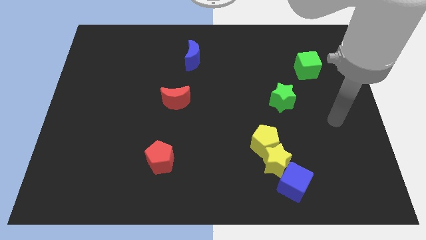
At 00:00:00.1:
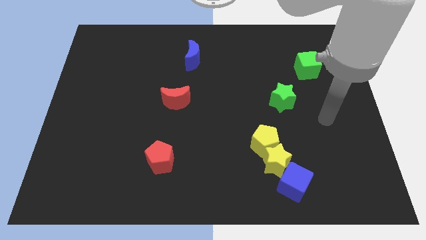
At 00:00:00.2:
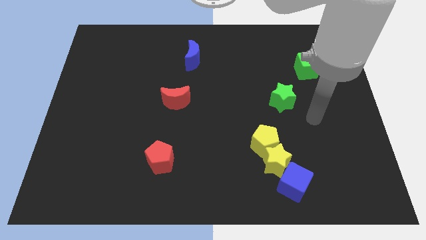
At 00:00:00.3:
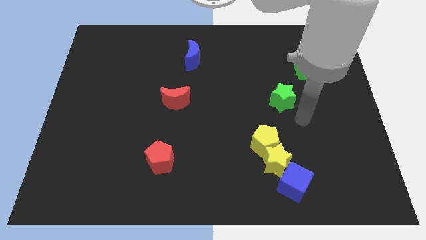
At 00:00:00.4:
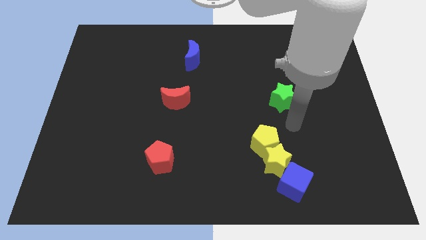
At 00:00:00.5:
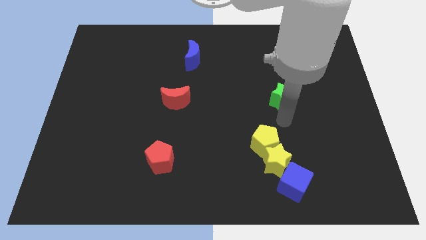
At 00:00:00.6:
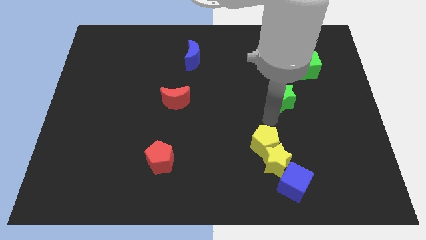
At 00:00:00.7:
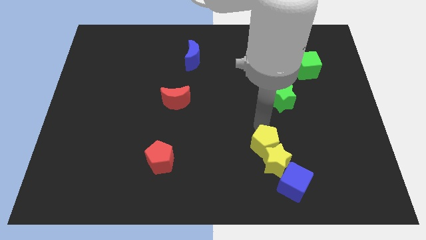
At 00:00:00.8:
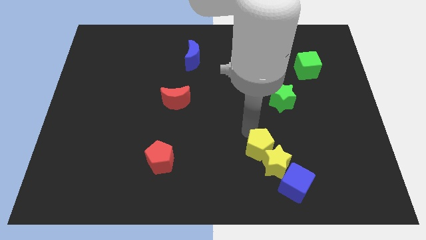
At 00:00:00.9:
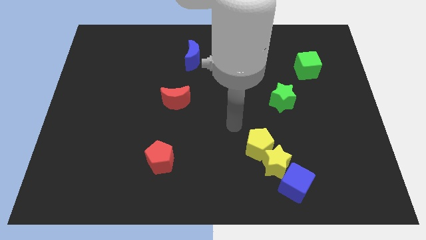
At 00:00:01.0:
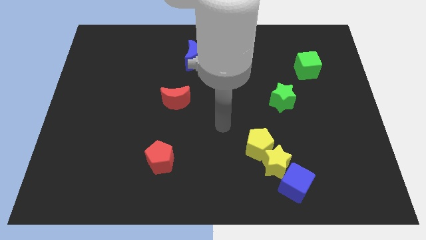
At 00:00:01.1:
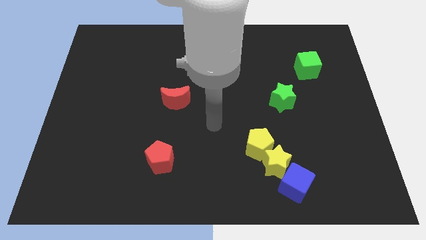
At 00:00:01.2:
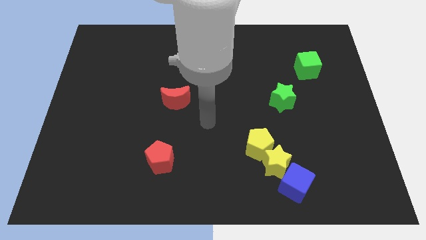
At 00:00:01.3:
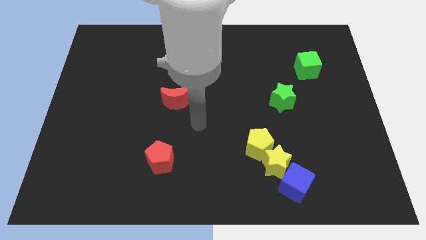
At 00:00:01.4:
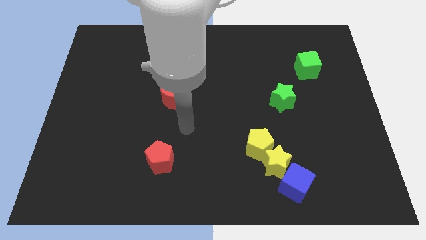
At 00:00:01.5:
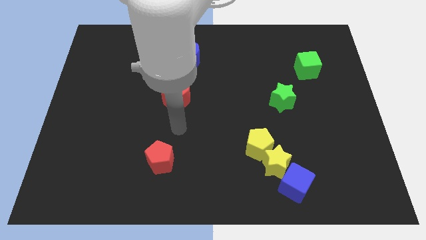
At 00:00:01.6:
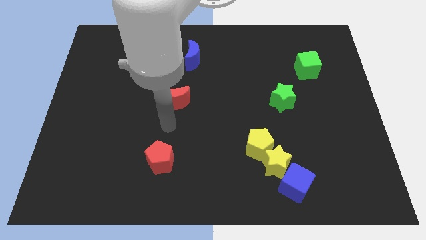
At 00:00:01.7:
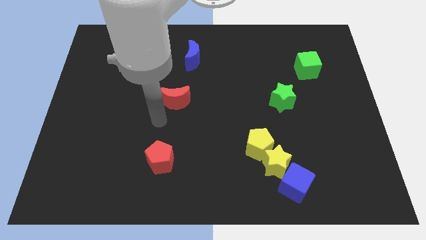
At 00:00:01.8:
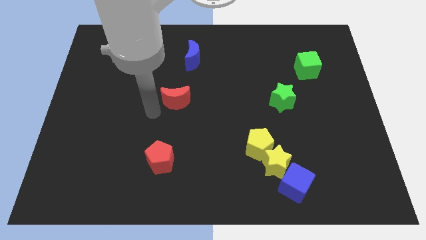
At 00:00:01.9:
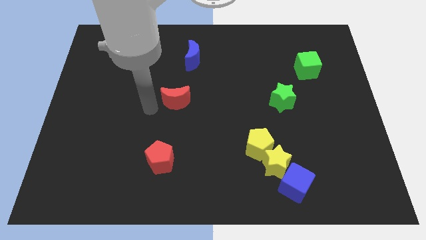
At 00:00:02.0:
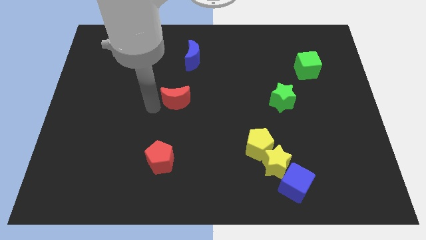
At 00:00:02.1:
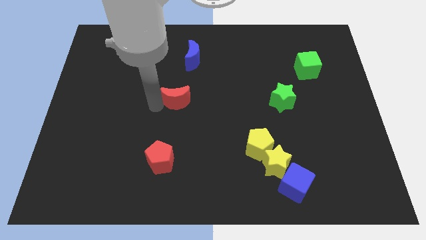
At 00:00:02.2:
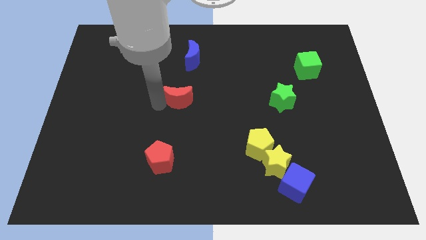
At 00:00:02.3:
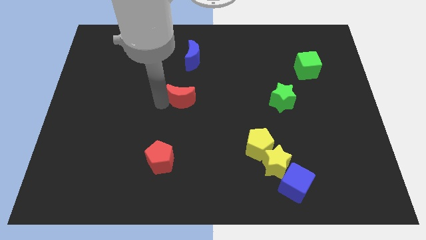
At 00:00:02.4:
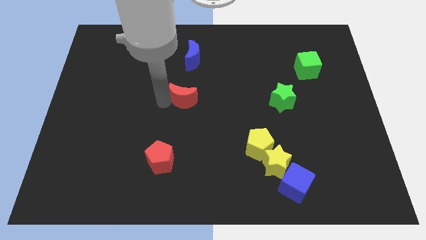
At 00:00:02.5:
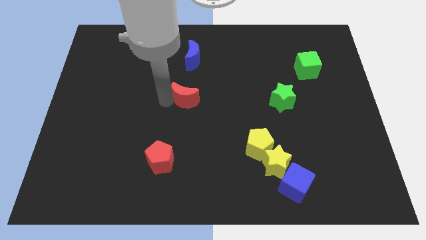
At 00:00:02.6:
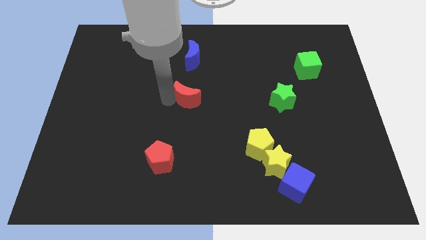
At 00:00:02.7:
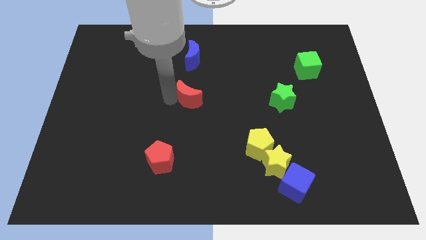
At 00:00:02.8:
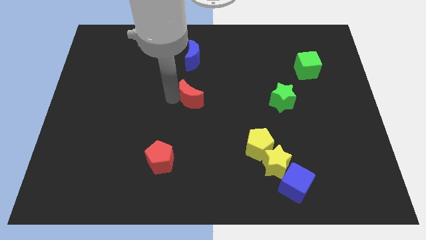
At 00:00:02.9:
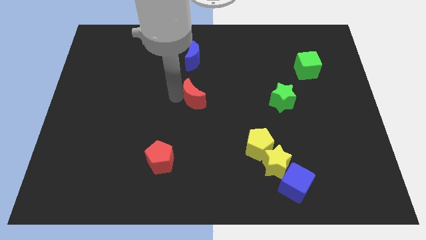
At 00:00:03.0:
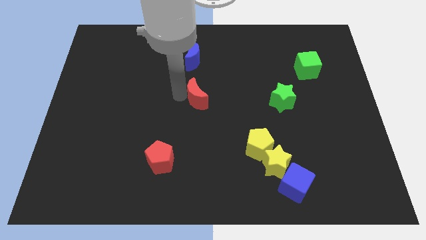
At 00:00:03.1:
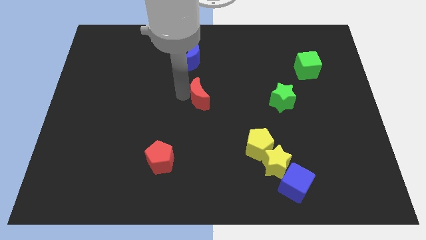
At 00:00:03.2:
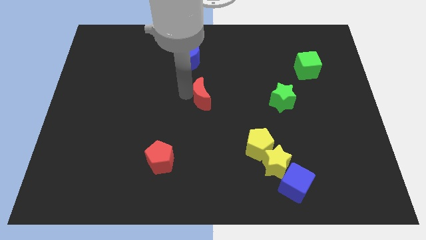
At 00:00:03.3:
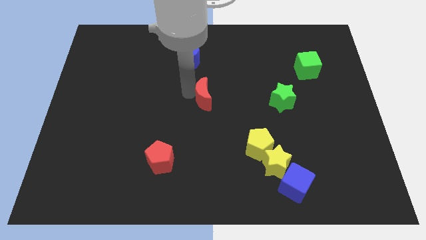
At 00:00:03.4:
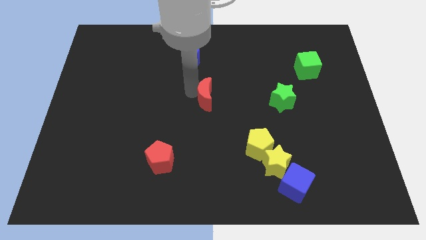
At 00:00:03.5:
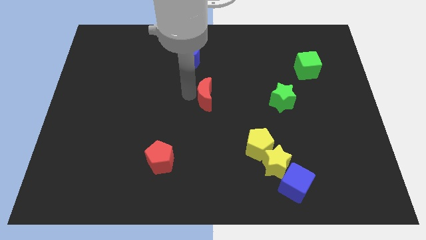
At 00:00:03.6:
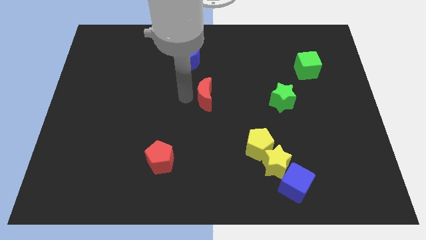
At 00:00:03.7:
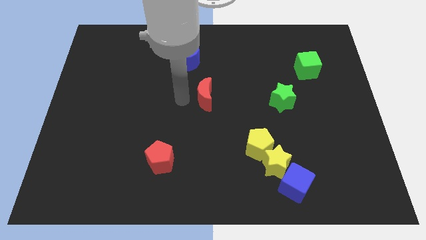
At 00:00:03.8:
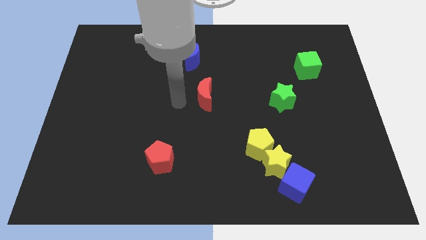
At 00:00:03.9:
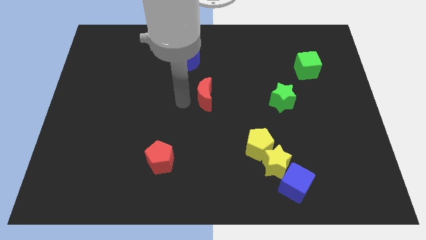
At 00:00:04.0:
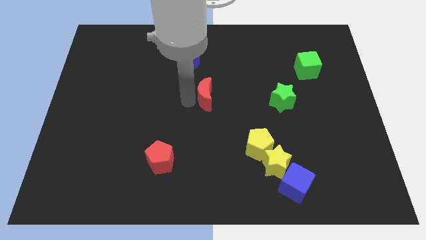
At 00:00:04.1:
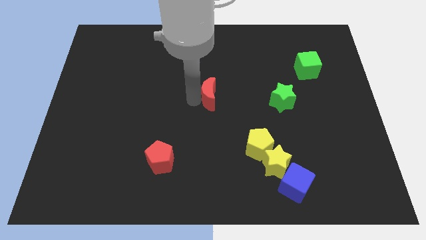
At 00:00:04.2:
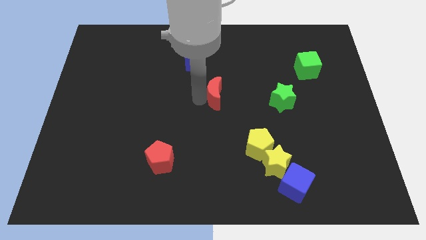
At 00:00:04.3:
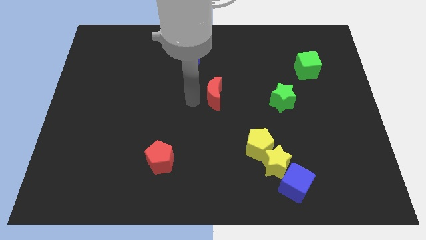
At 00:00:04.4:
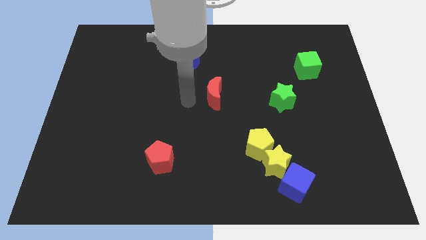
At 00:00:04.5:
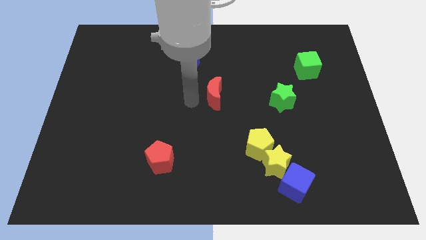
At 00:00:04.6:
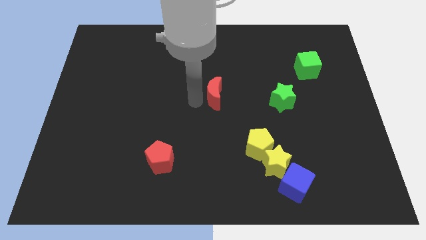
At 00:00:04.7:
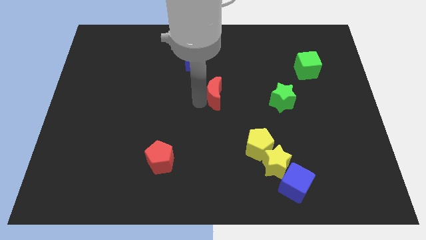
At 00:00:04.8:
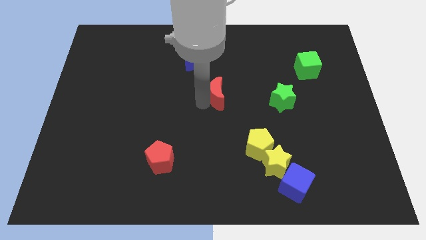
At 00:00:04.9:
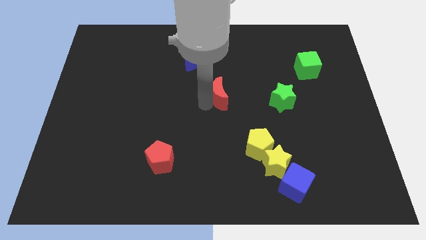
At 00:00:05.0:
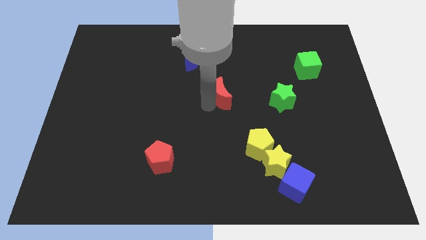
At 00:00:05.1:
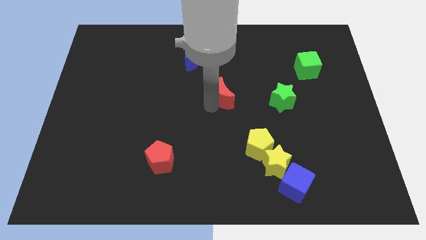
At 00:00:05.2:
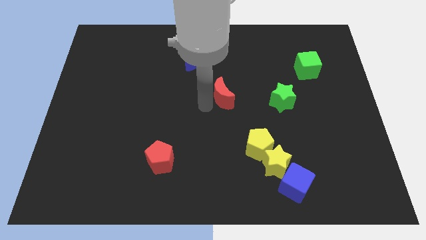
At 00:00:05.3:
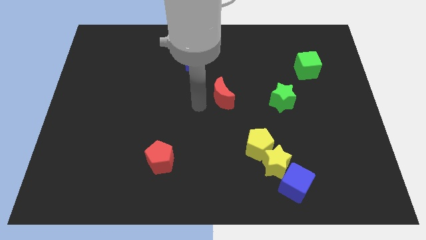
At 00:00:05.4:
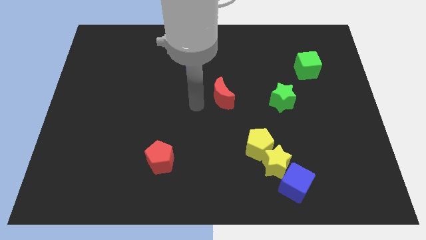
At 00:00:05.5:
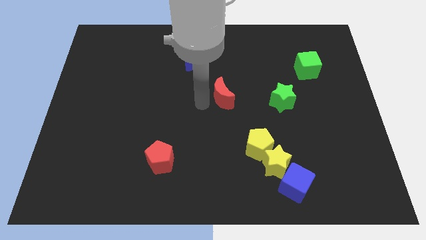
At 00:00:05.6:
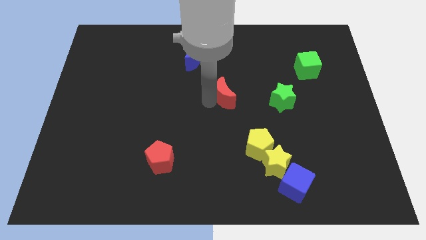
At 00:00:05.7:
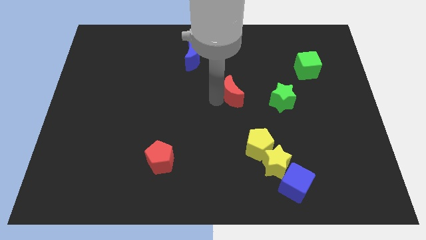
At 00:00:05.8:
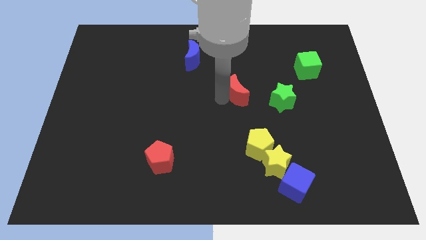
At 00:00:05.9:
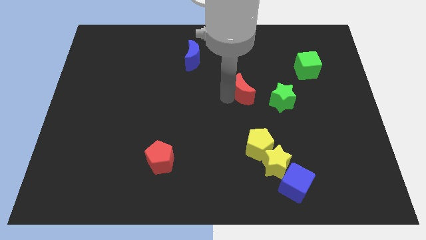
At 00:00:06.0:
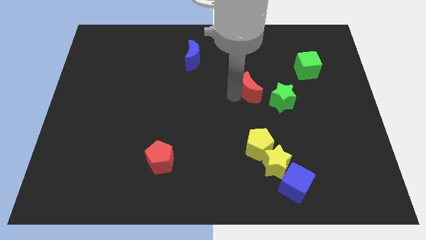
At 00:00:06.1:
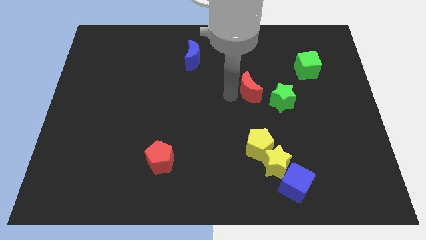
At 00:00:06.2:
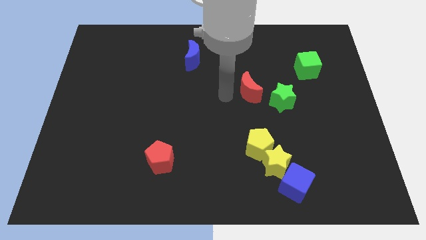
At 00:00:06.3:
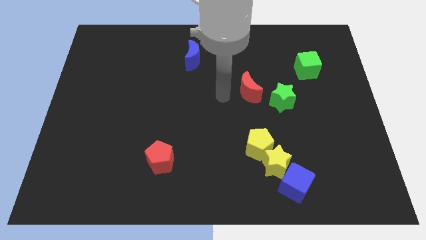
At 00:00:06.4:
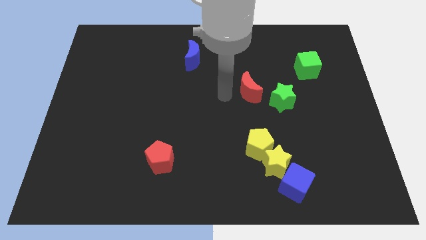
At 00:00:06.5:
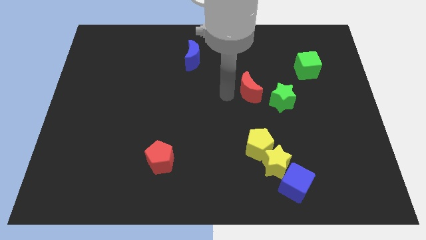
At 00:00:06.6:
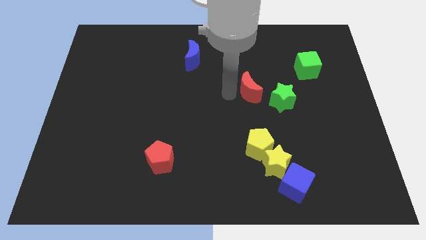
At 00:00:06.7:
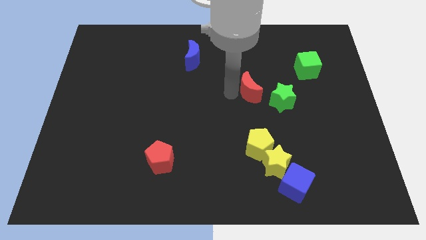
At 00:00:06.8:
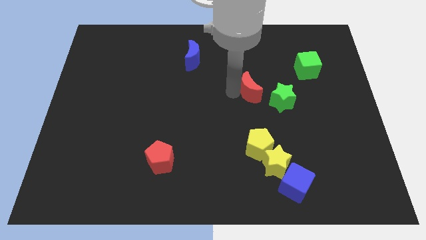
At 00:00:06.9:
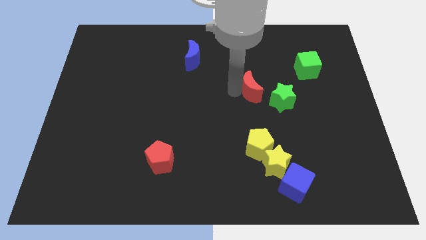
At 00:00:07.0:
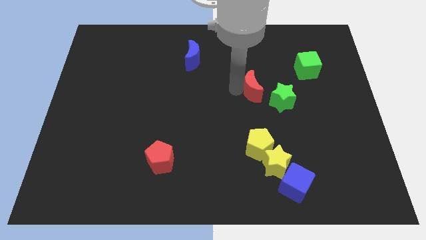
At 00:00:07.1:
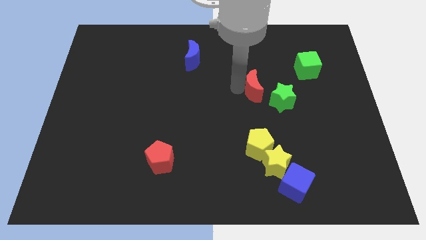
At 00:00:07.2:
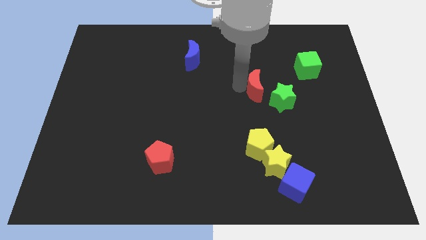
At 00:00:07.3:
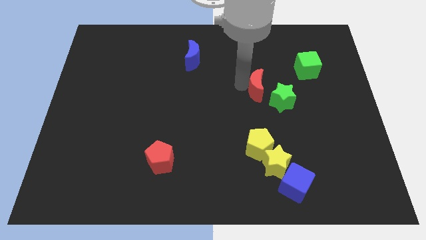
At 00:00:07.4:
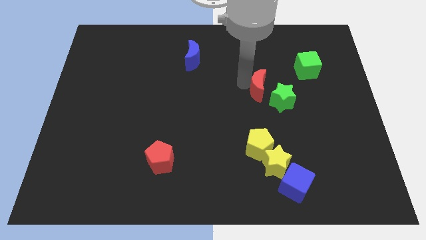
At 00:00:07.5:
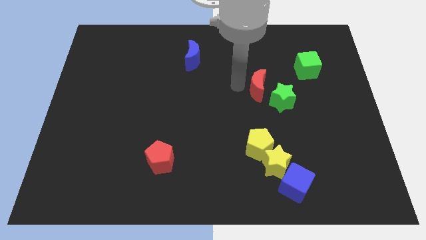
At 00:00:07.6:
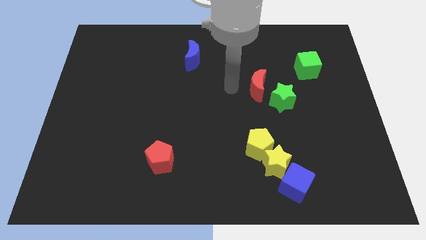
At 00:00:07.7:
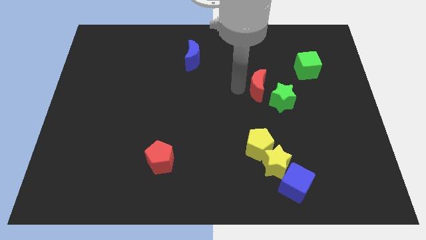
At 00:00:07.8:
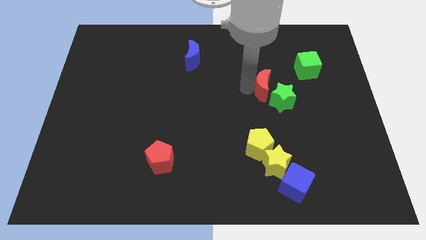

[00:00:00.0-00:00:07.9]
slide the red moon right
